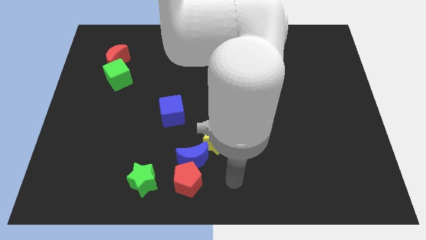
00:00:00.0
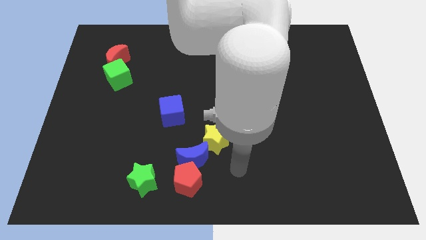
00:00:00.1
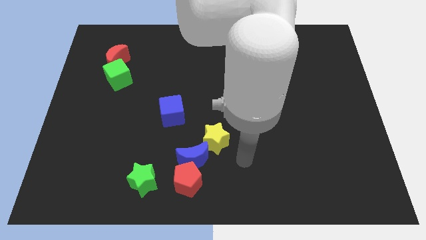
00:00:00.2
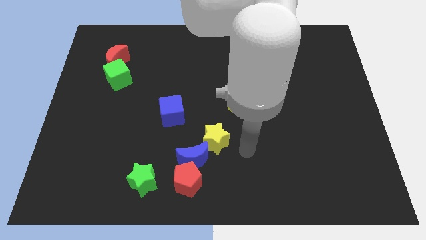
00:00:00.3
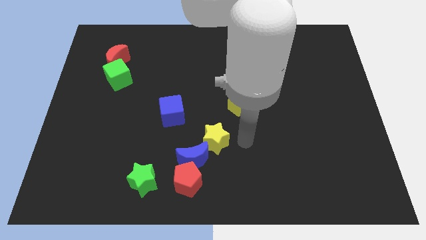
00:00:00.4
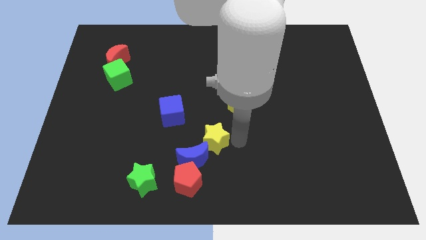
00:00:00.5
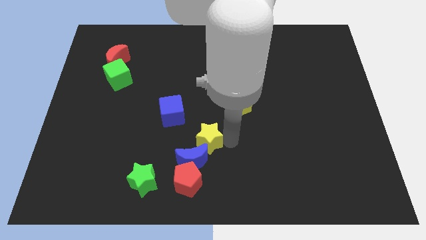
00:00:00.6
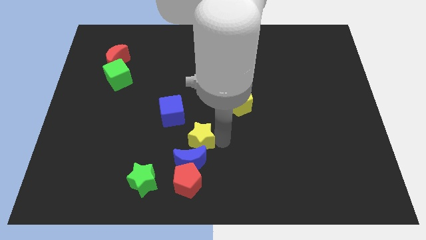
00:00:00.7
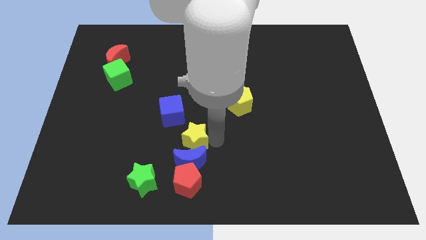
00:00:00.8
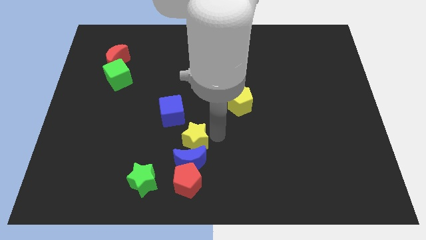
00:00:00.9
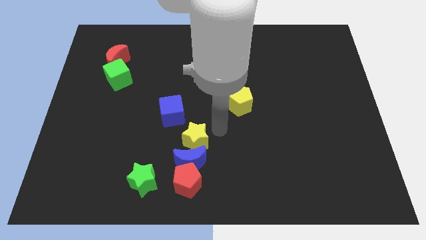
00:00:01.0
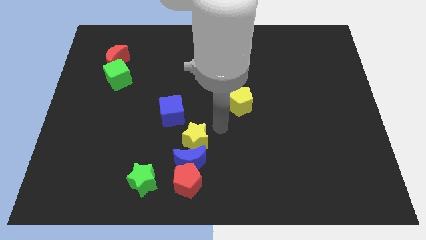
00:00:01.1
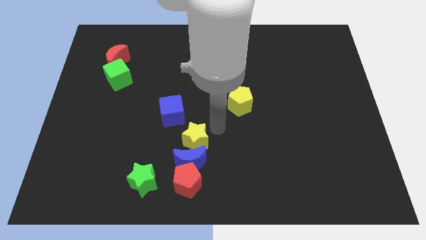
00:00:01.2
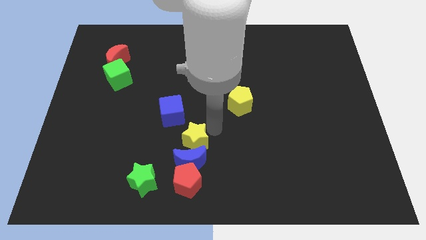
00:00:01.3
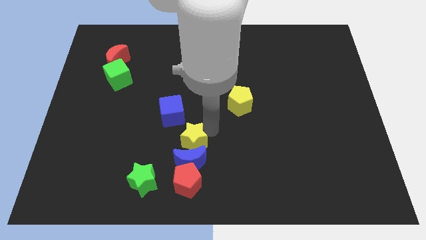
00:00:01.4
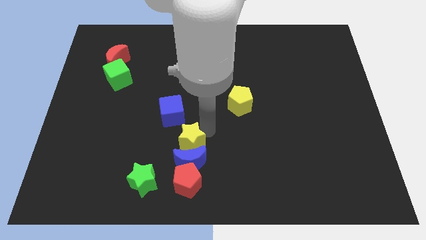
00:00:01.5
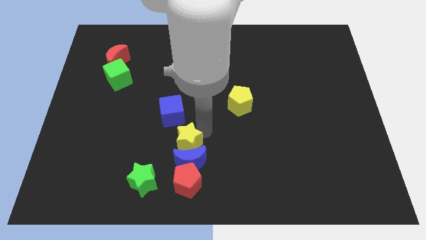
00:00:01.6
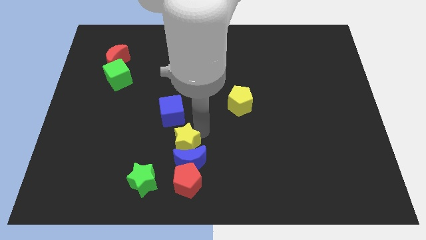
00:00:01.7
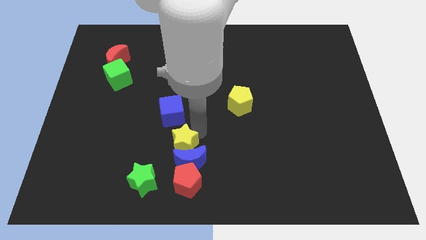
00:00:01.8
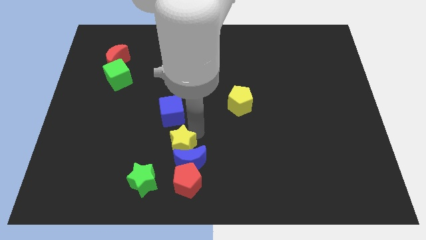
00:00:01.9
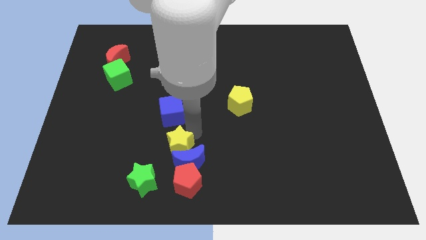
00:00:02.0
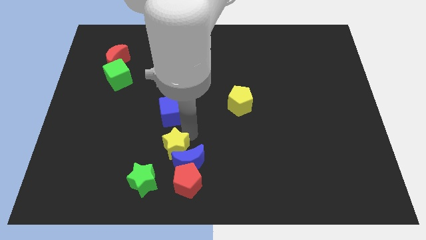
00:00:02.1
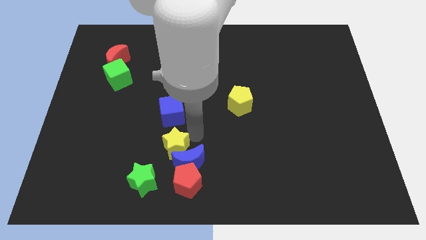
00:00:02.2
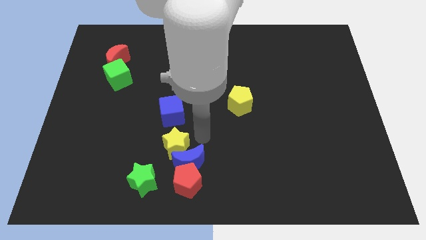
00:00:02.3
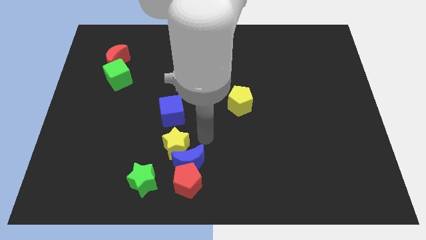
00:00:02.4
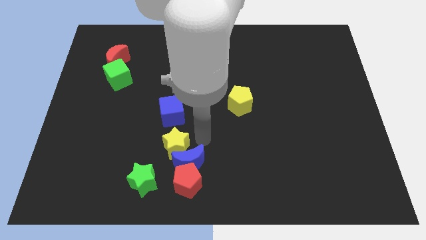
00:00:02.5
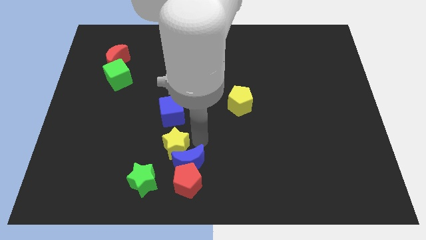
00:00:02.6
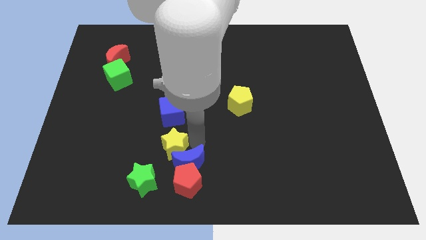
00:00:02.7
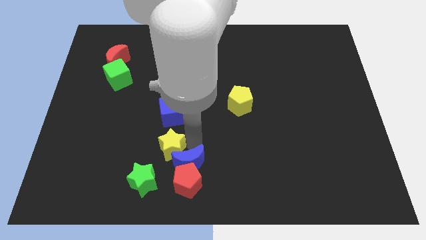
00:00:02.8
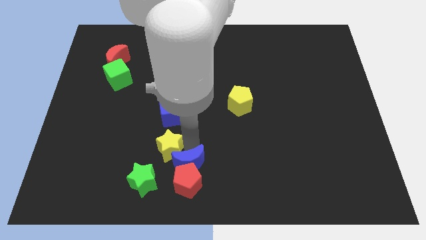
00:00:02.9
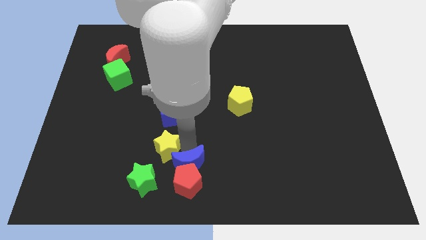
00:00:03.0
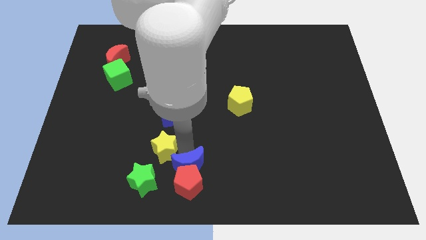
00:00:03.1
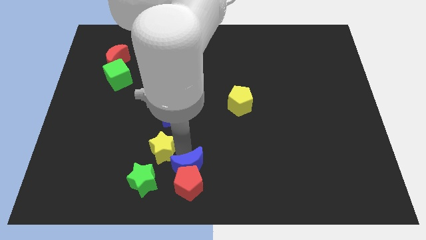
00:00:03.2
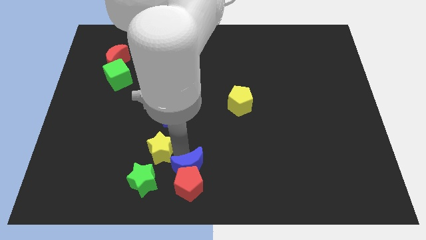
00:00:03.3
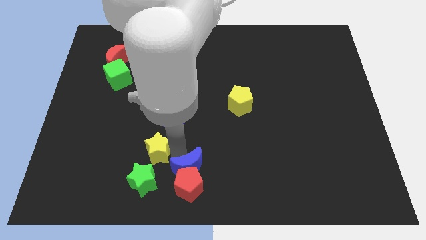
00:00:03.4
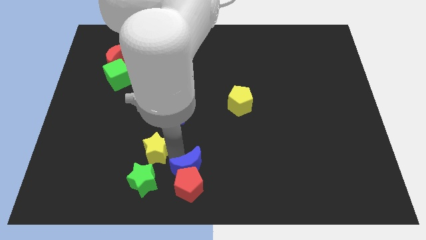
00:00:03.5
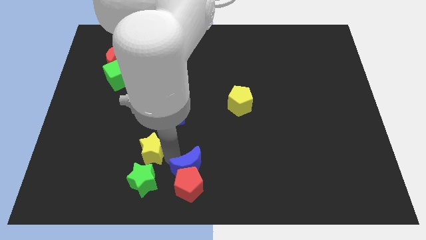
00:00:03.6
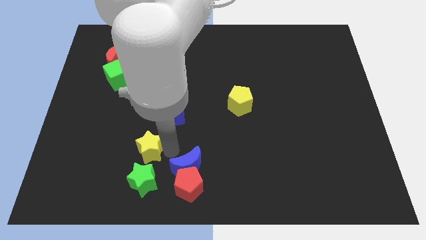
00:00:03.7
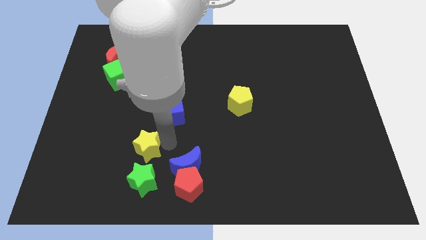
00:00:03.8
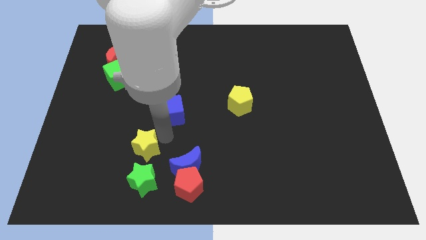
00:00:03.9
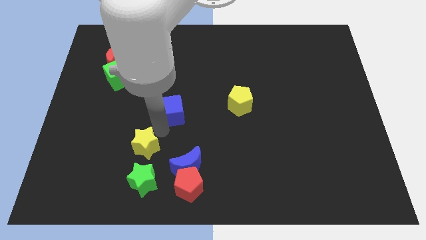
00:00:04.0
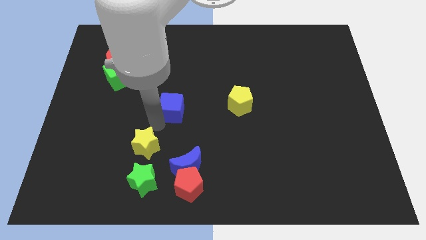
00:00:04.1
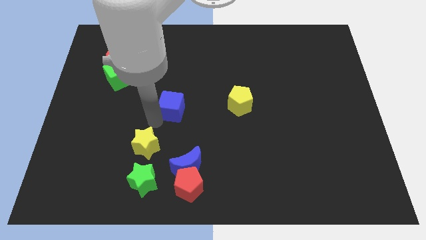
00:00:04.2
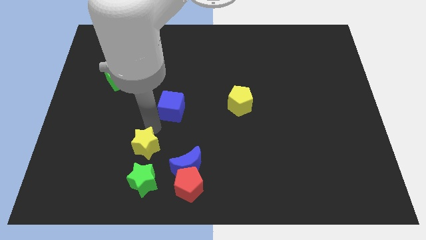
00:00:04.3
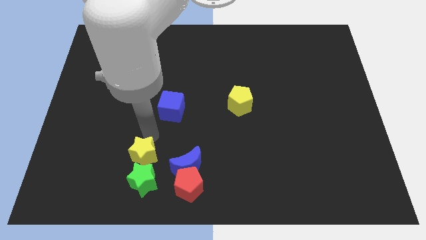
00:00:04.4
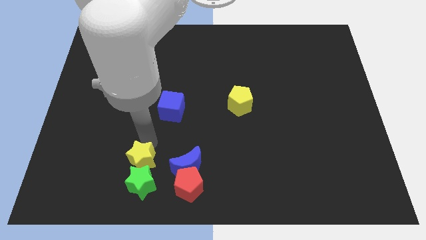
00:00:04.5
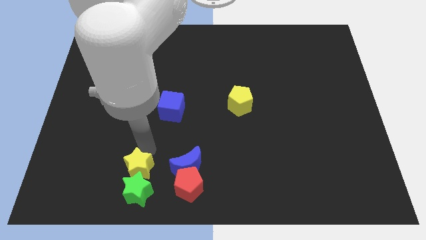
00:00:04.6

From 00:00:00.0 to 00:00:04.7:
move the yellow star just left of the red pentagon

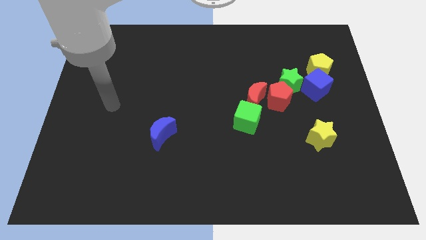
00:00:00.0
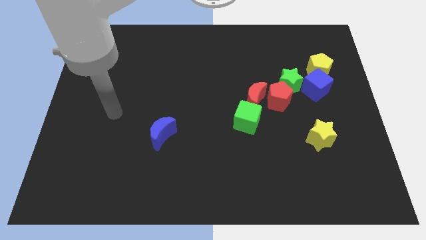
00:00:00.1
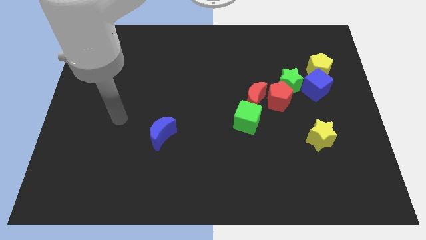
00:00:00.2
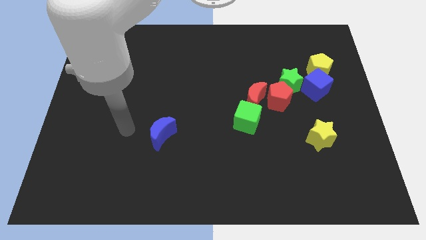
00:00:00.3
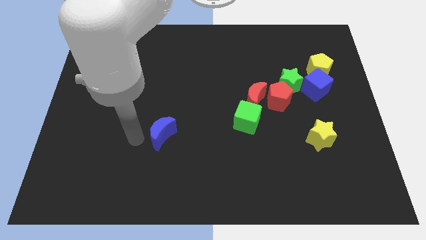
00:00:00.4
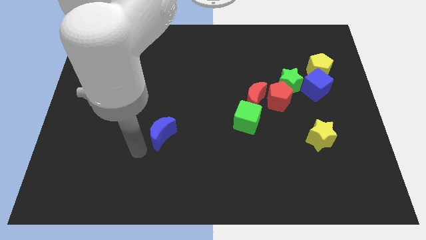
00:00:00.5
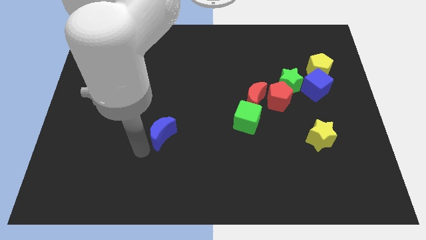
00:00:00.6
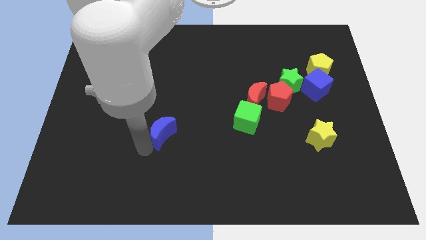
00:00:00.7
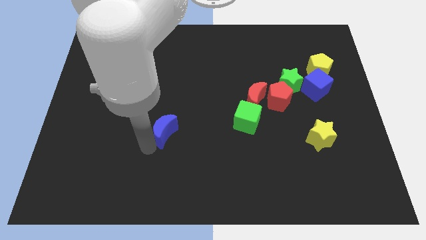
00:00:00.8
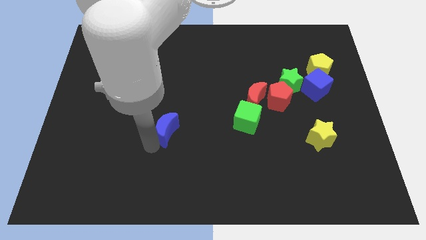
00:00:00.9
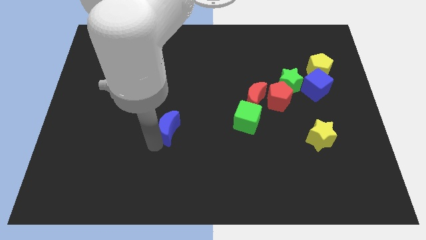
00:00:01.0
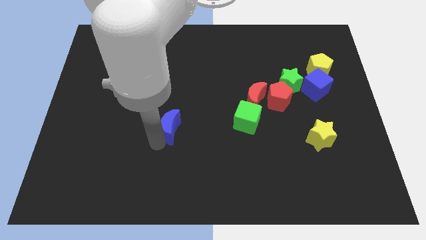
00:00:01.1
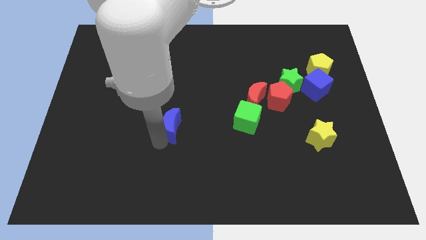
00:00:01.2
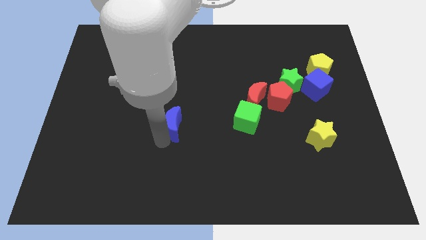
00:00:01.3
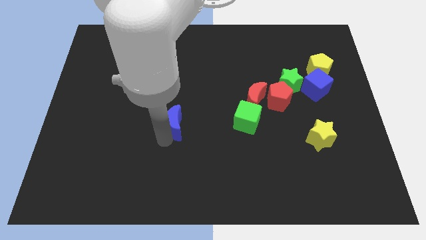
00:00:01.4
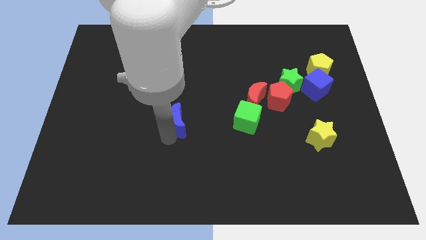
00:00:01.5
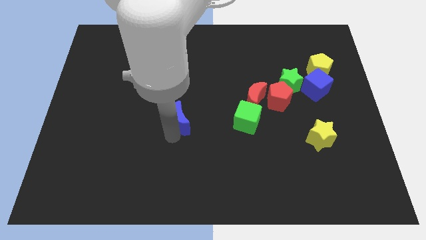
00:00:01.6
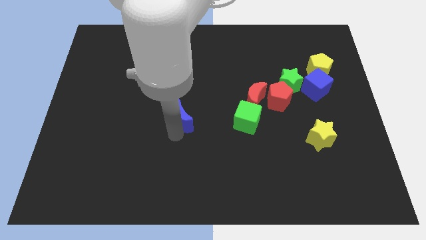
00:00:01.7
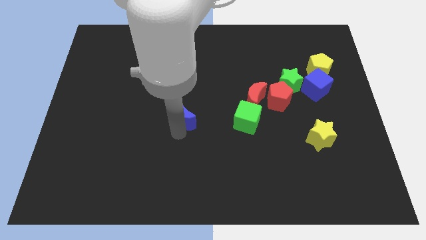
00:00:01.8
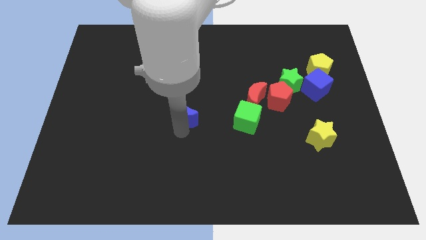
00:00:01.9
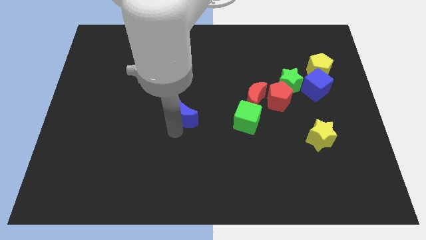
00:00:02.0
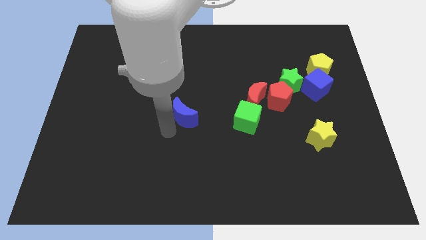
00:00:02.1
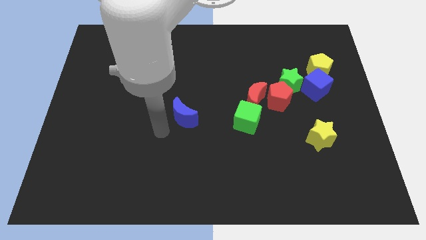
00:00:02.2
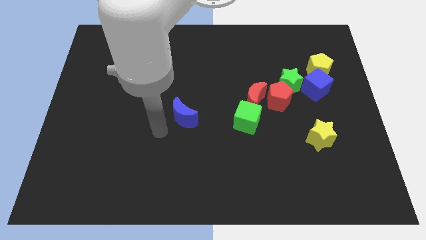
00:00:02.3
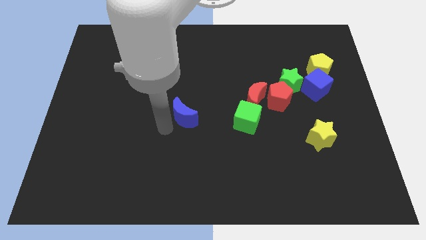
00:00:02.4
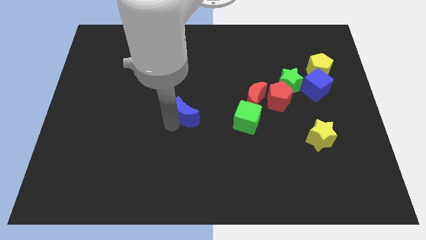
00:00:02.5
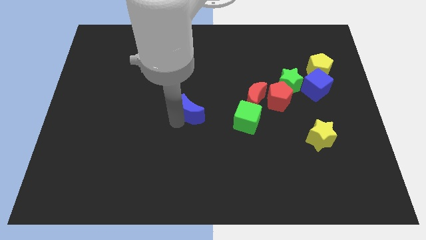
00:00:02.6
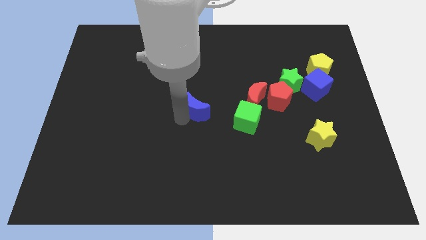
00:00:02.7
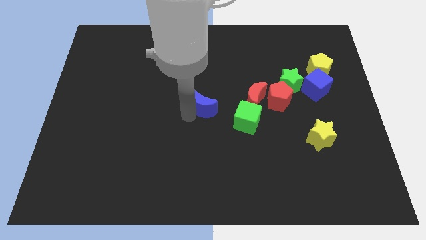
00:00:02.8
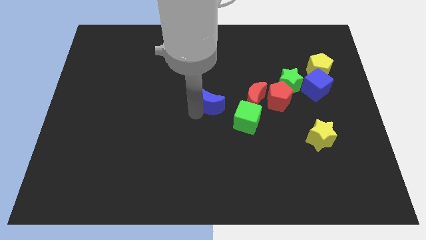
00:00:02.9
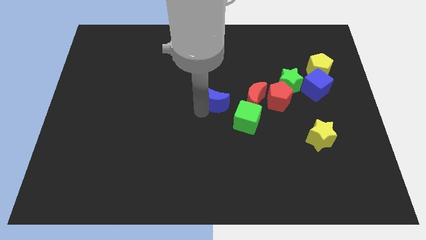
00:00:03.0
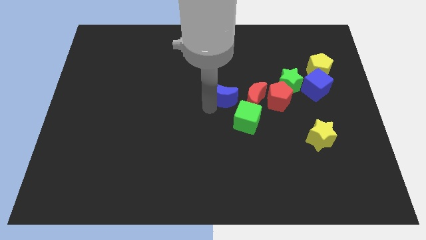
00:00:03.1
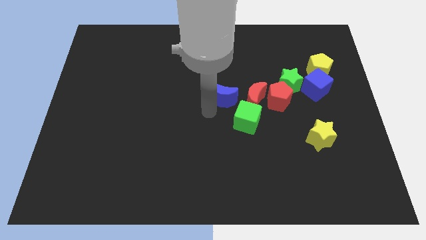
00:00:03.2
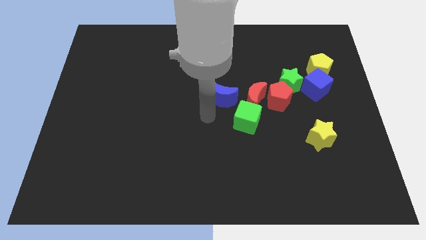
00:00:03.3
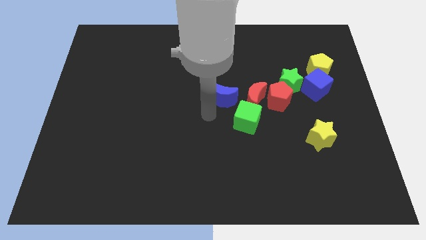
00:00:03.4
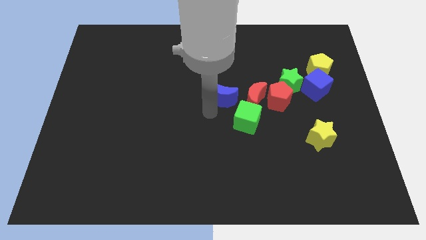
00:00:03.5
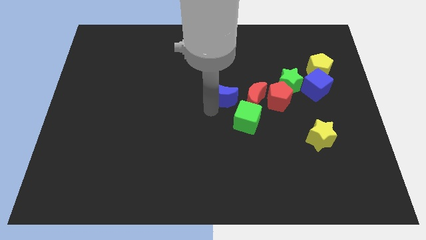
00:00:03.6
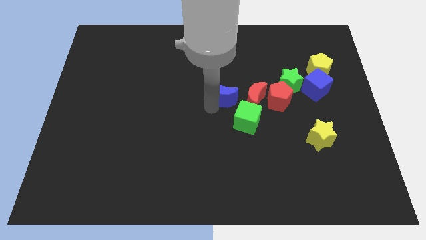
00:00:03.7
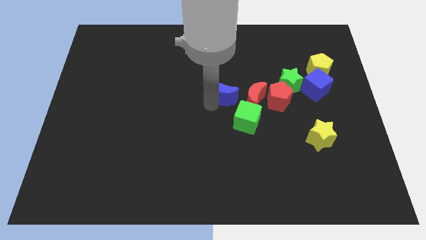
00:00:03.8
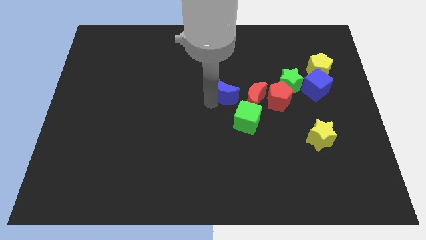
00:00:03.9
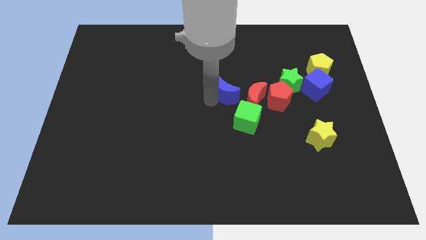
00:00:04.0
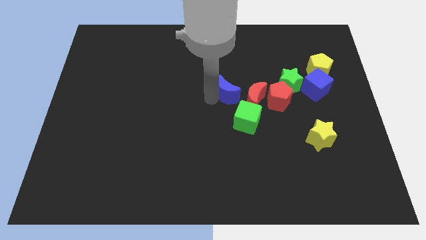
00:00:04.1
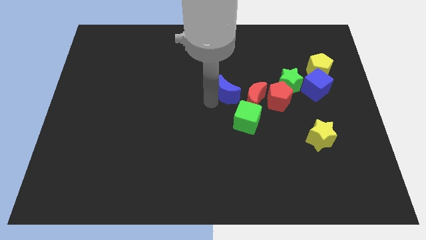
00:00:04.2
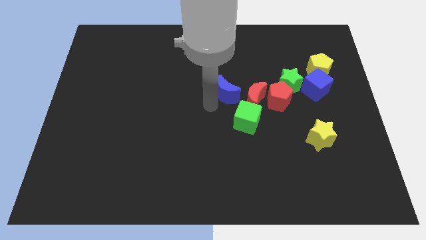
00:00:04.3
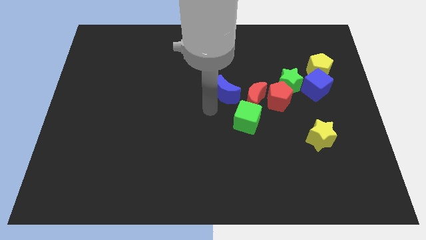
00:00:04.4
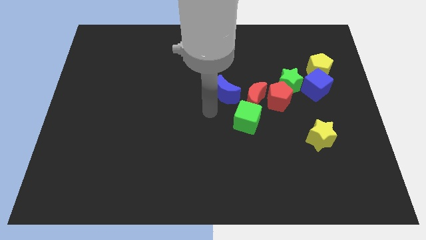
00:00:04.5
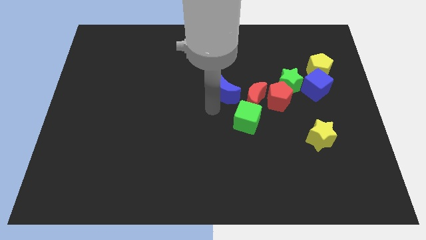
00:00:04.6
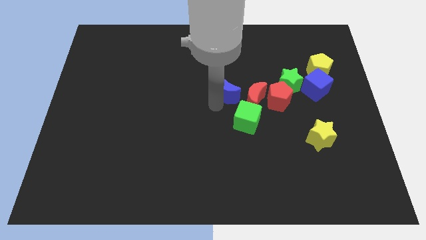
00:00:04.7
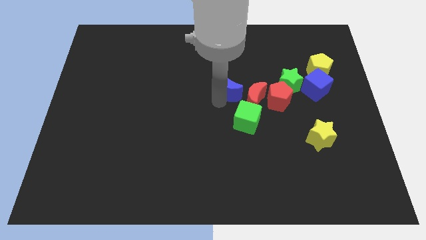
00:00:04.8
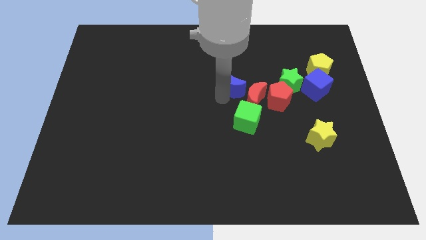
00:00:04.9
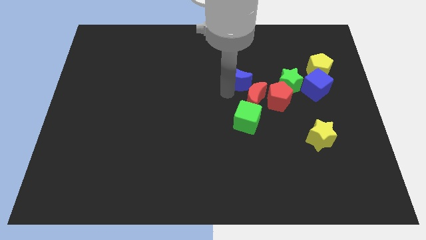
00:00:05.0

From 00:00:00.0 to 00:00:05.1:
slide the blue moon to the top of the red moon
